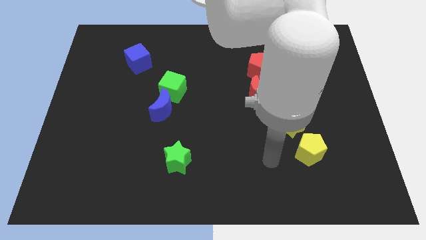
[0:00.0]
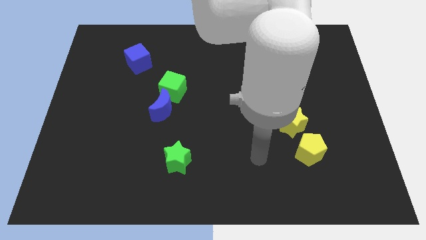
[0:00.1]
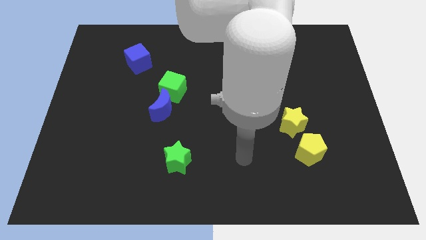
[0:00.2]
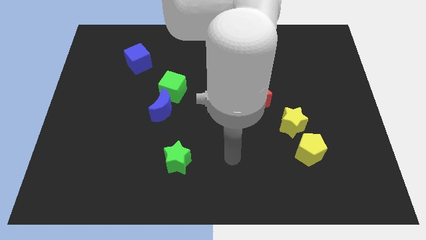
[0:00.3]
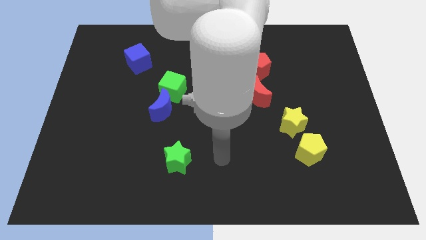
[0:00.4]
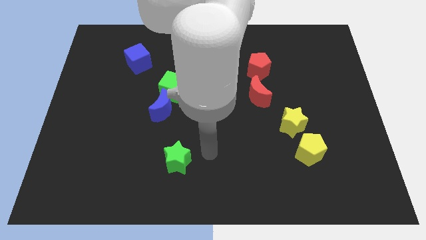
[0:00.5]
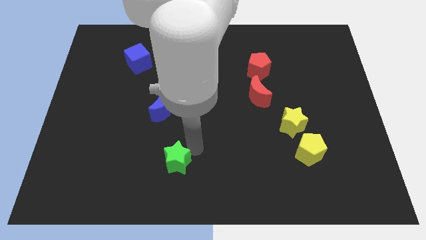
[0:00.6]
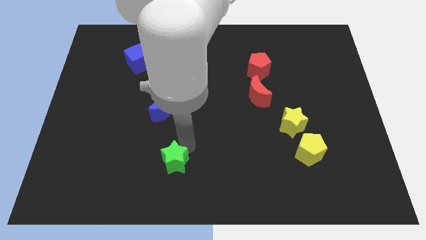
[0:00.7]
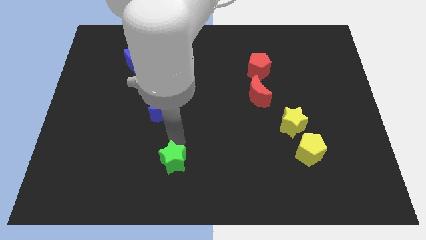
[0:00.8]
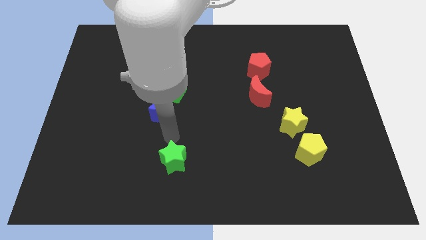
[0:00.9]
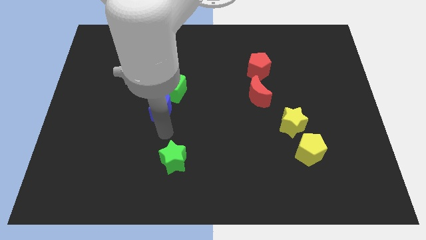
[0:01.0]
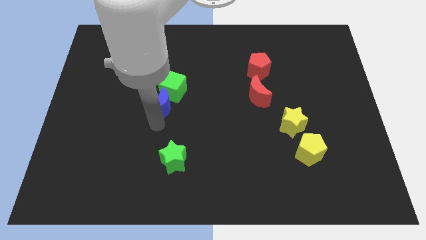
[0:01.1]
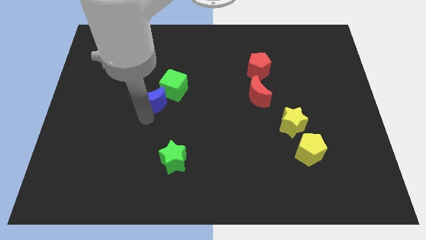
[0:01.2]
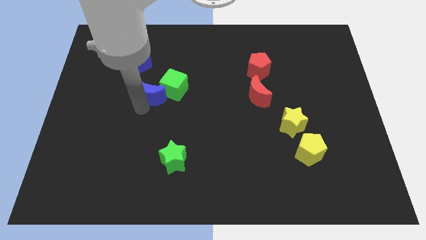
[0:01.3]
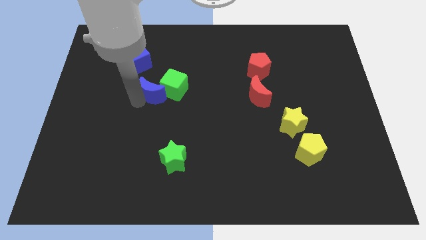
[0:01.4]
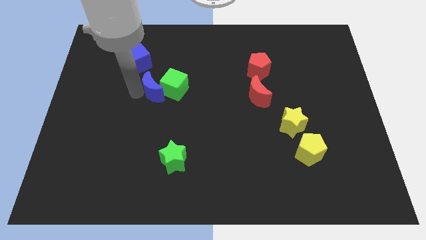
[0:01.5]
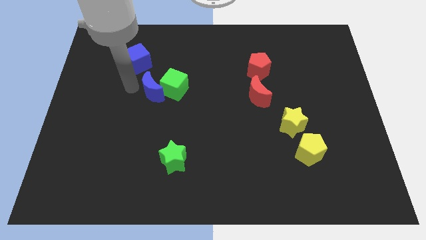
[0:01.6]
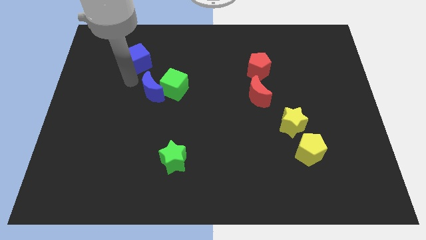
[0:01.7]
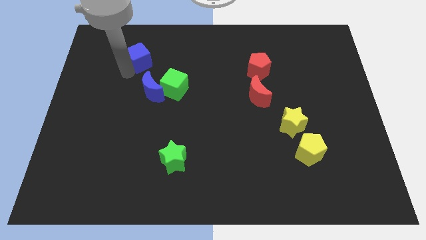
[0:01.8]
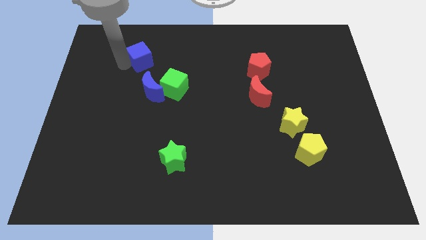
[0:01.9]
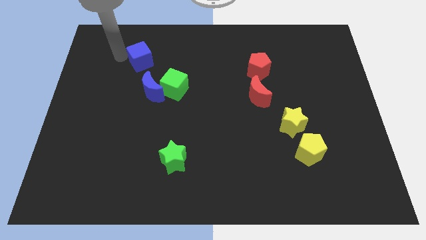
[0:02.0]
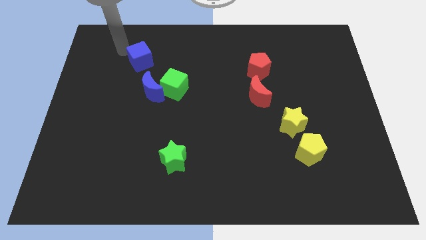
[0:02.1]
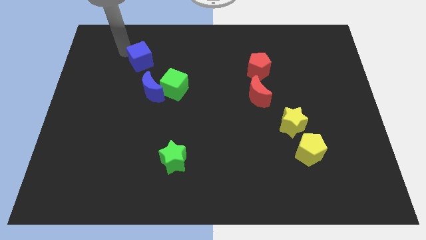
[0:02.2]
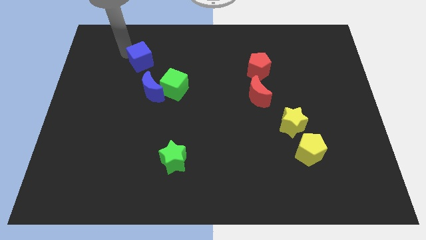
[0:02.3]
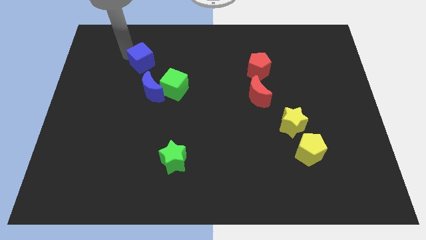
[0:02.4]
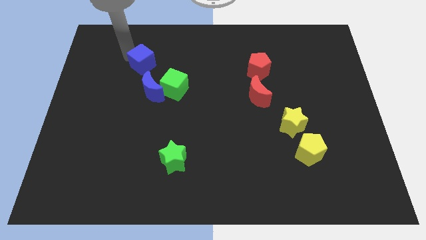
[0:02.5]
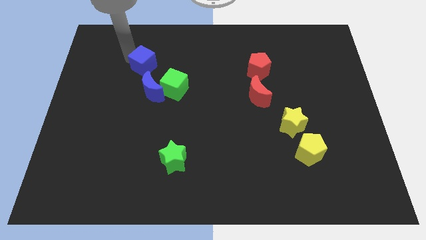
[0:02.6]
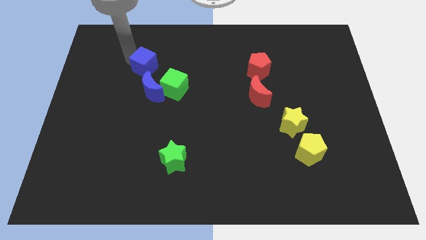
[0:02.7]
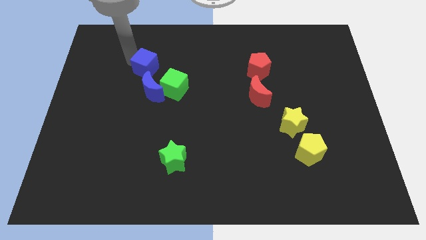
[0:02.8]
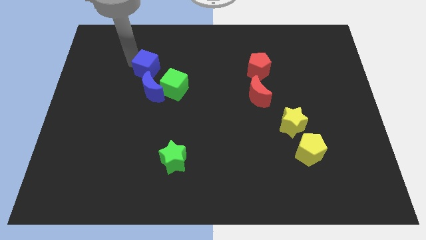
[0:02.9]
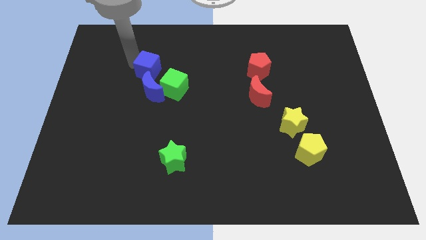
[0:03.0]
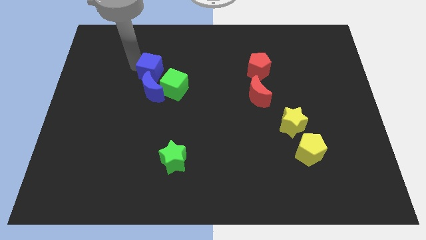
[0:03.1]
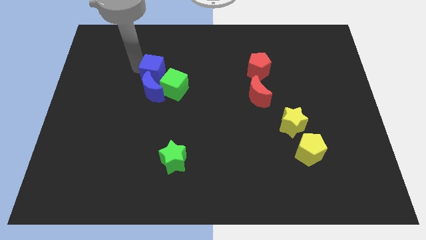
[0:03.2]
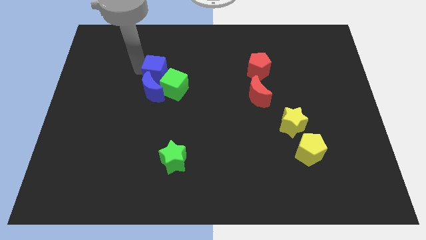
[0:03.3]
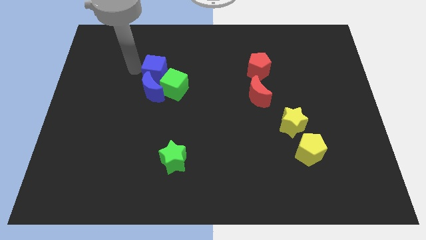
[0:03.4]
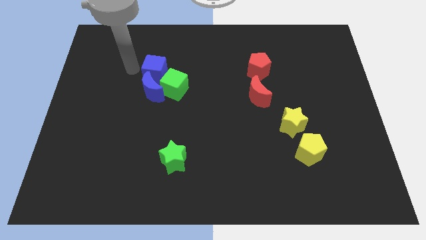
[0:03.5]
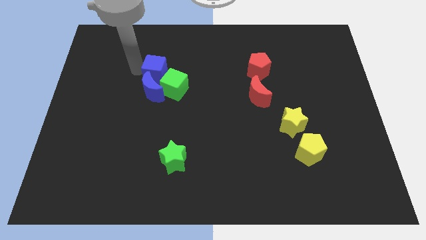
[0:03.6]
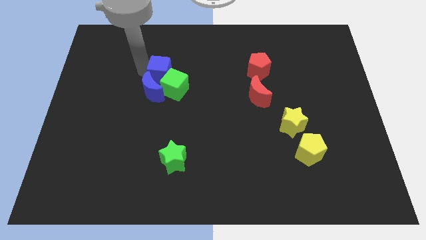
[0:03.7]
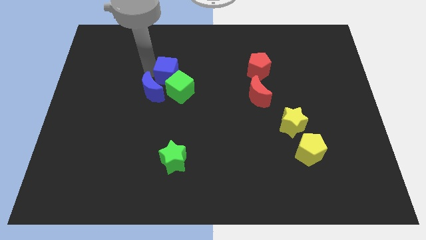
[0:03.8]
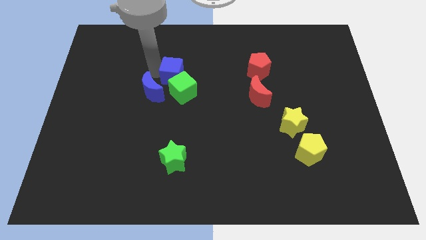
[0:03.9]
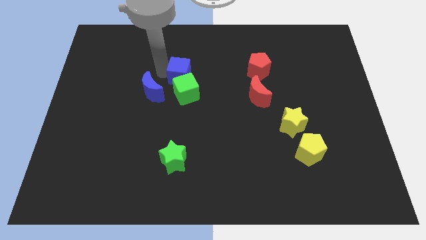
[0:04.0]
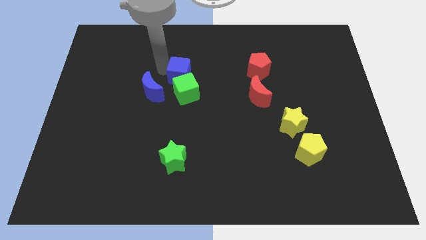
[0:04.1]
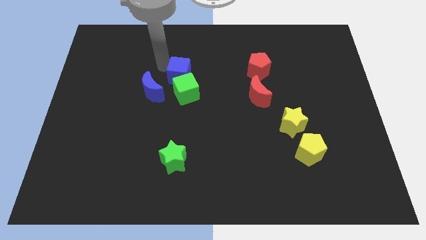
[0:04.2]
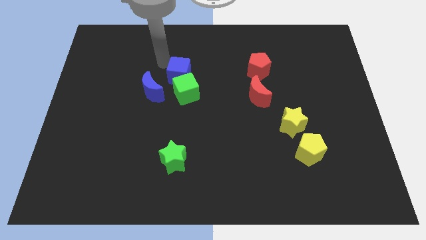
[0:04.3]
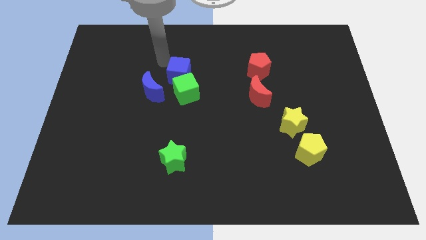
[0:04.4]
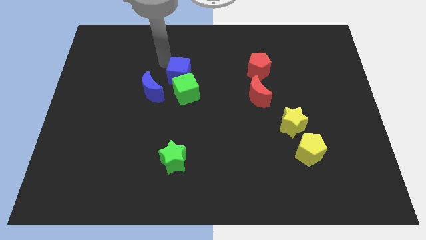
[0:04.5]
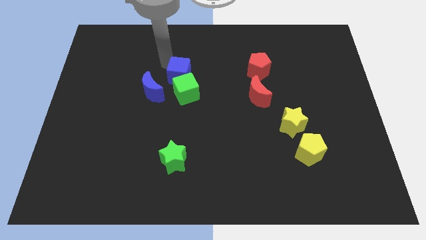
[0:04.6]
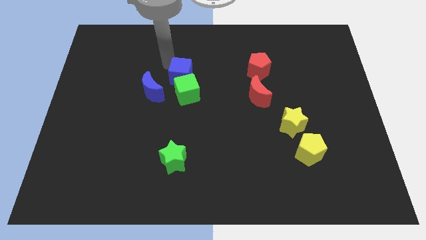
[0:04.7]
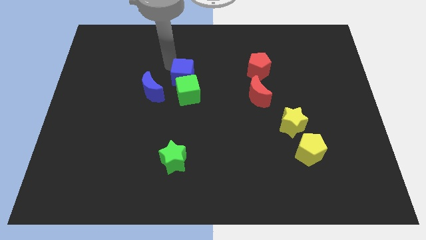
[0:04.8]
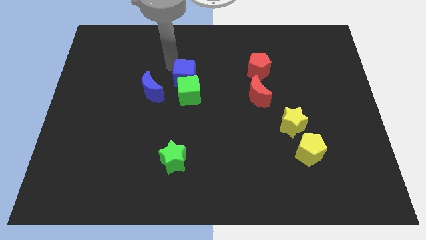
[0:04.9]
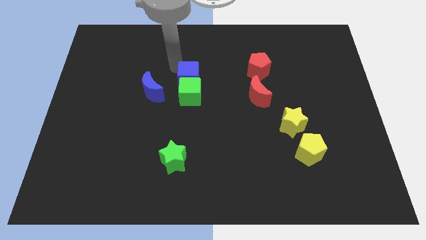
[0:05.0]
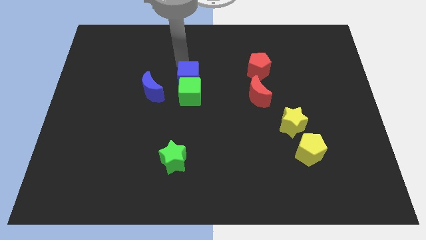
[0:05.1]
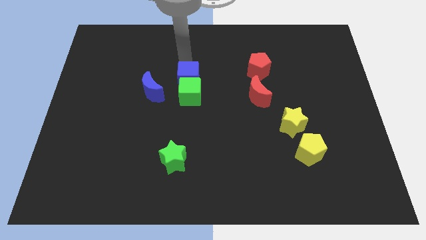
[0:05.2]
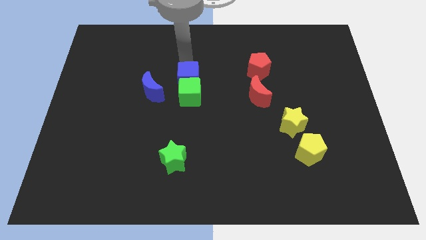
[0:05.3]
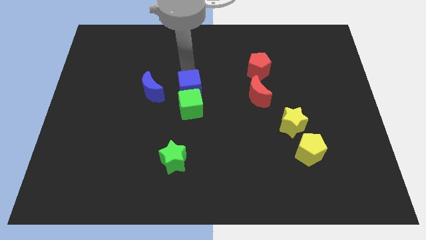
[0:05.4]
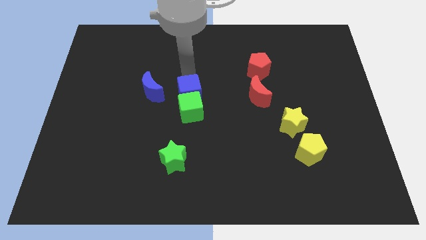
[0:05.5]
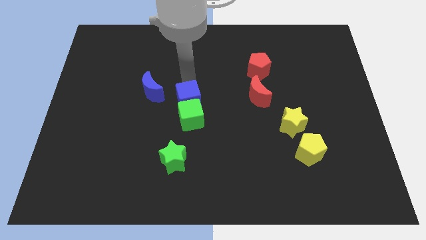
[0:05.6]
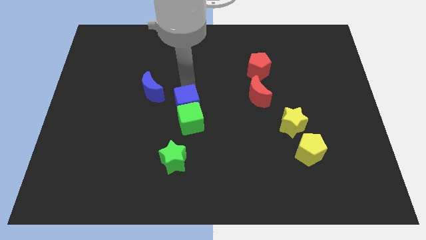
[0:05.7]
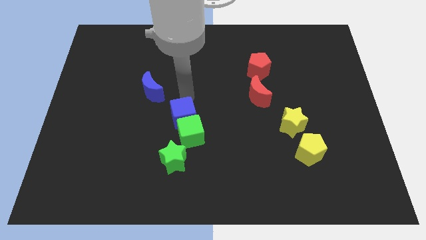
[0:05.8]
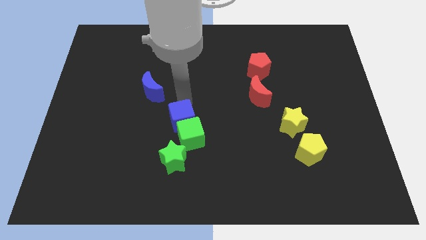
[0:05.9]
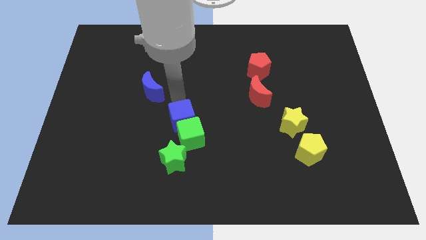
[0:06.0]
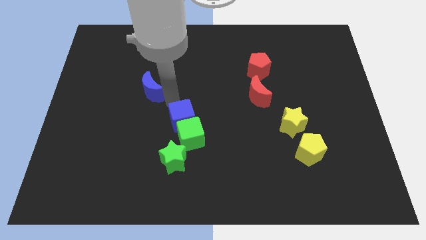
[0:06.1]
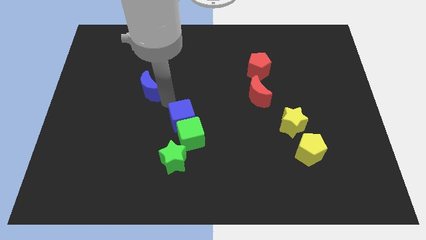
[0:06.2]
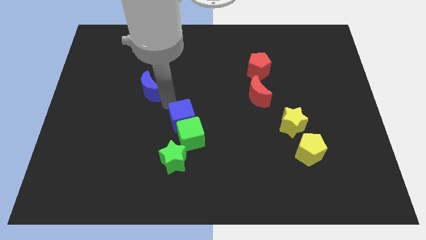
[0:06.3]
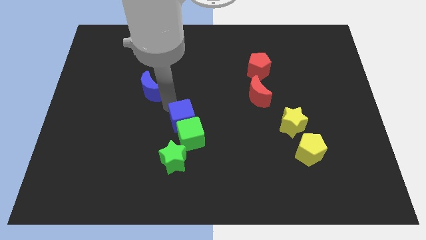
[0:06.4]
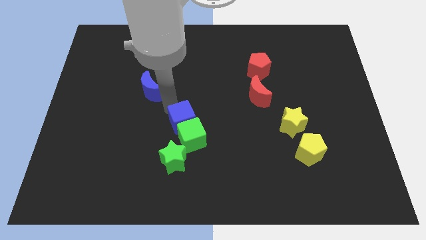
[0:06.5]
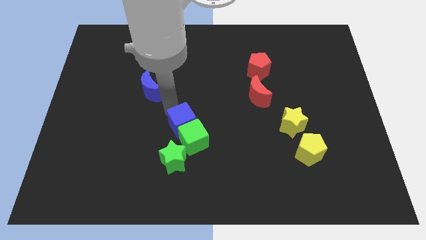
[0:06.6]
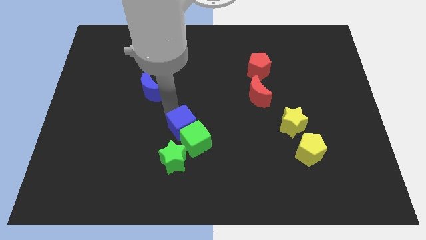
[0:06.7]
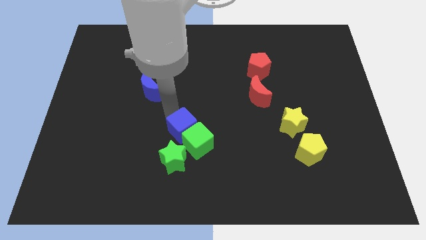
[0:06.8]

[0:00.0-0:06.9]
move the blue cube to the top right of the green star
